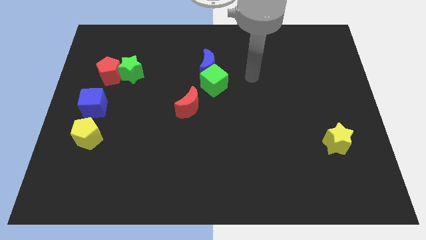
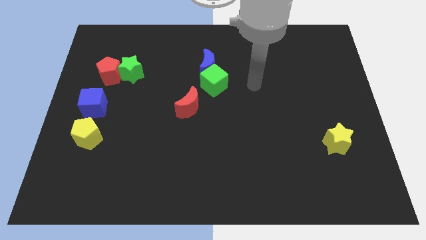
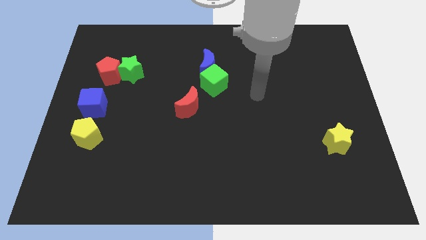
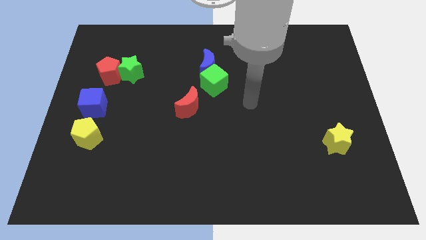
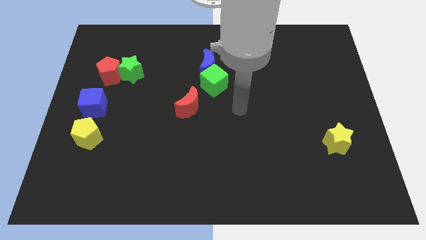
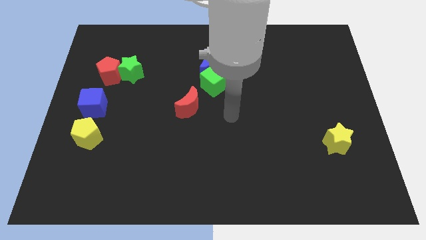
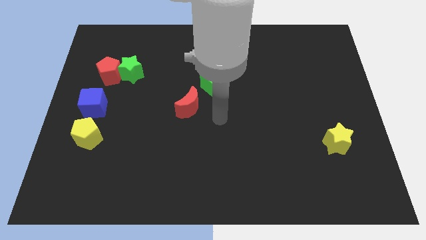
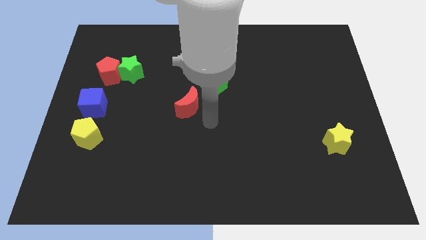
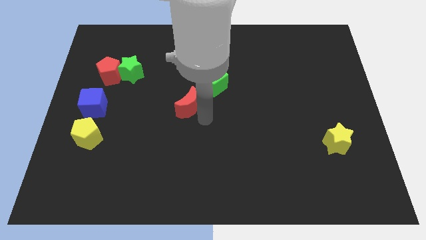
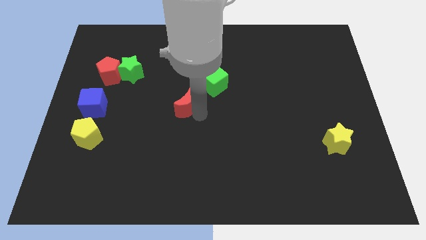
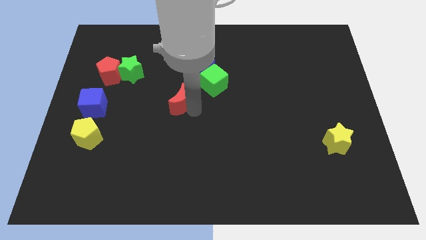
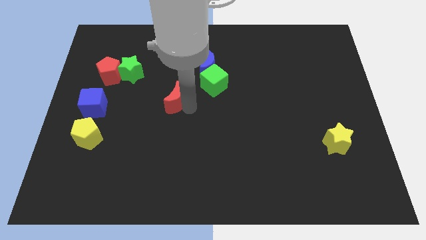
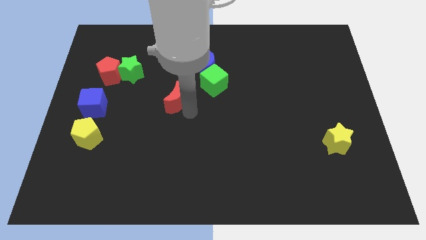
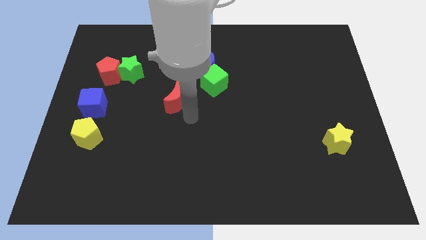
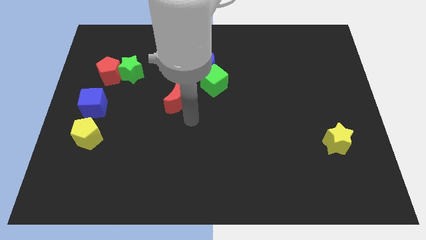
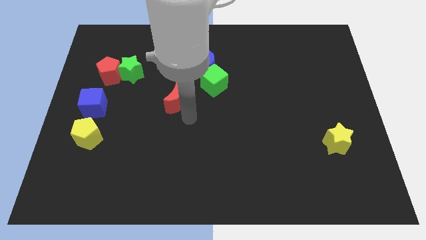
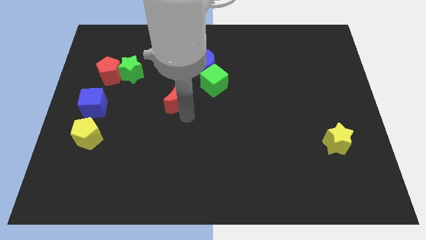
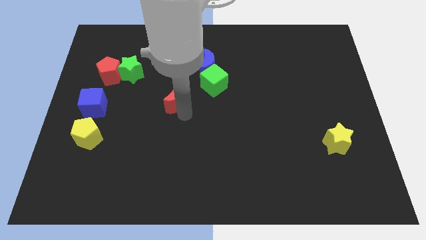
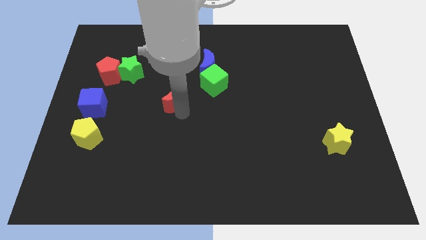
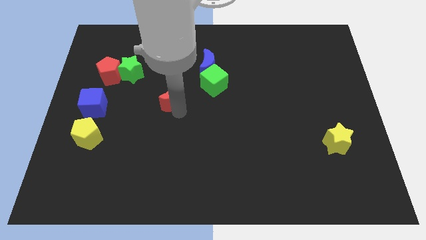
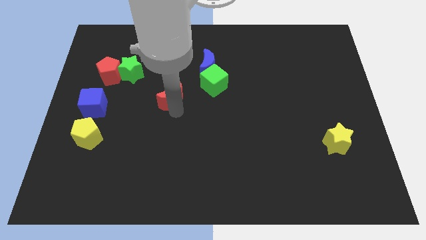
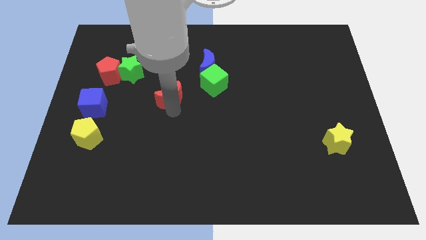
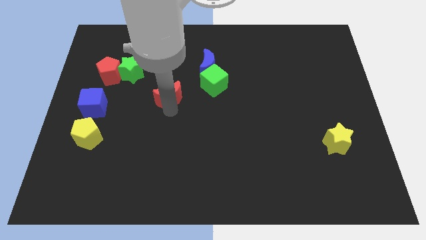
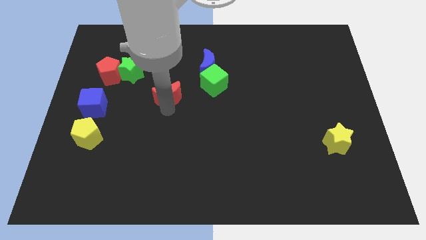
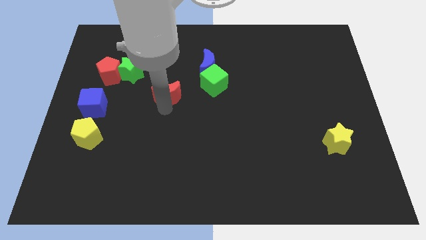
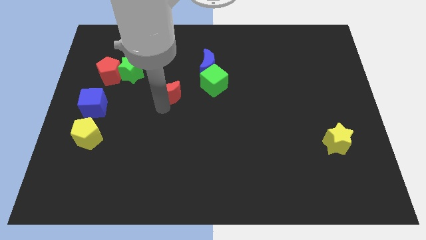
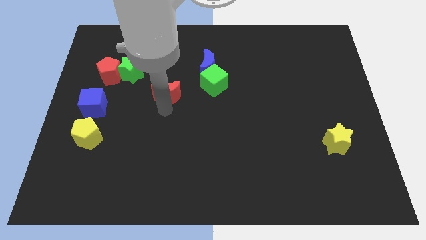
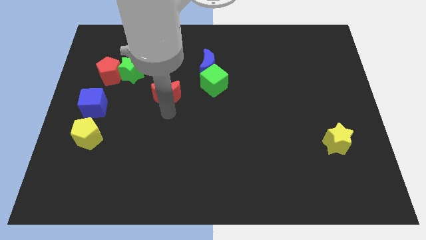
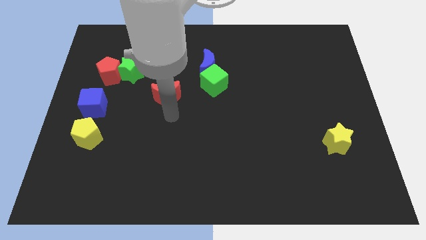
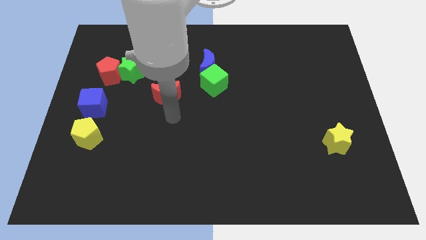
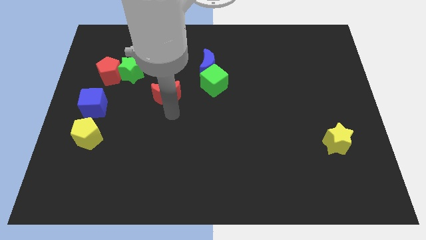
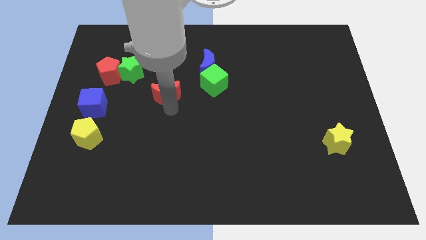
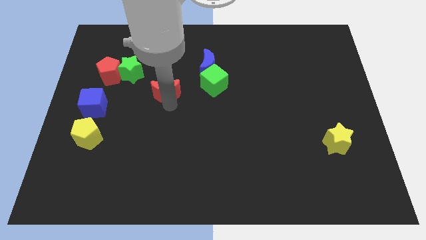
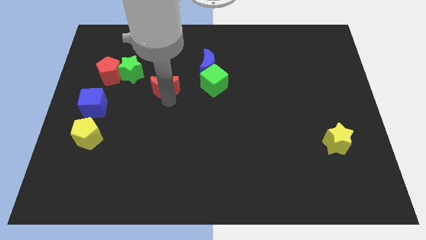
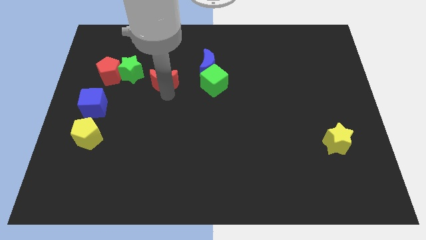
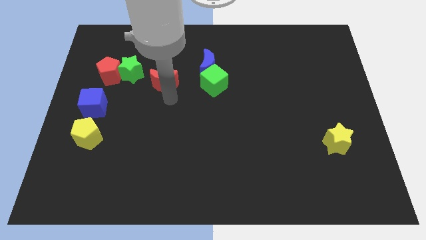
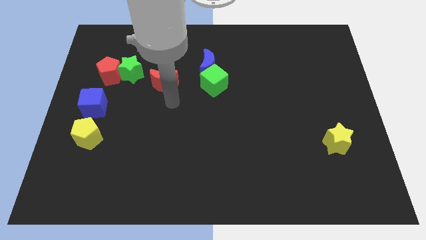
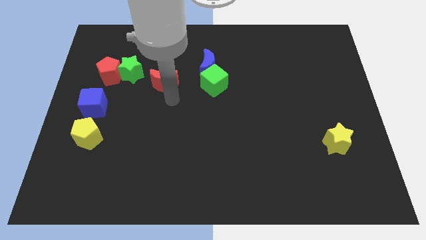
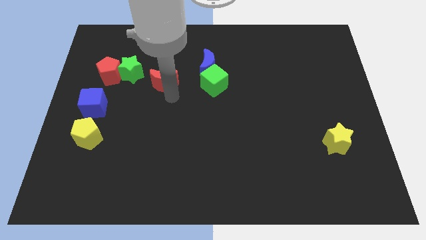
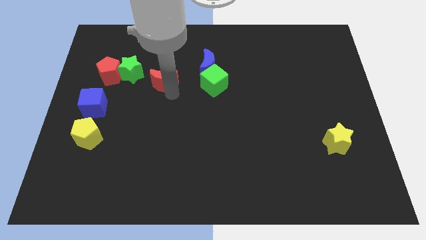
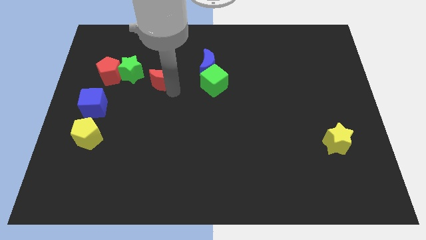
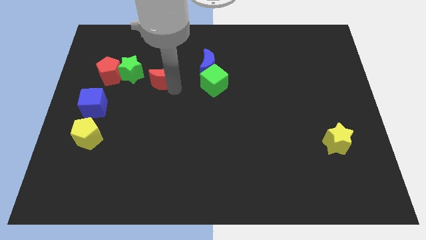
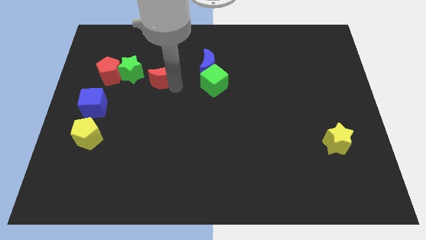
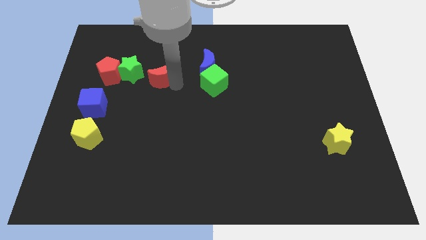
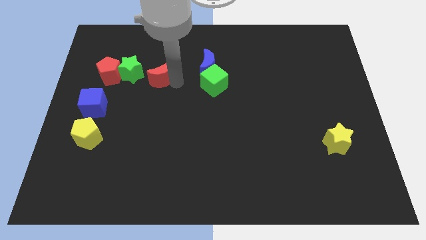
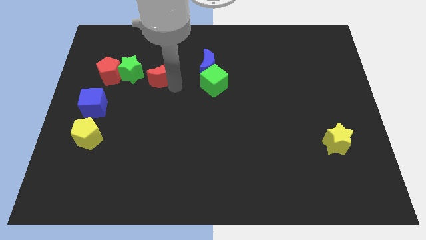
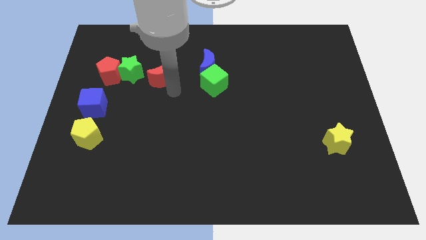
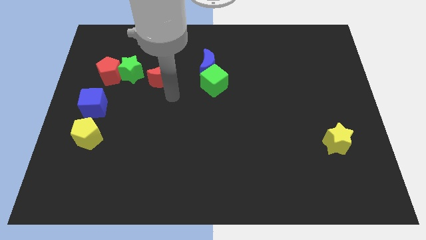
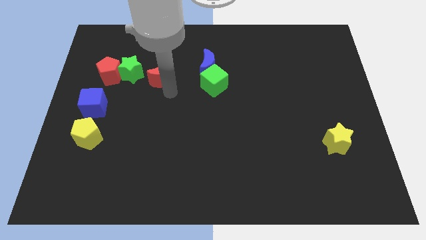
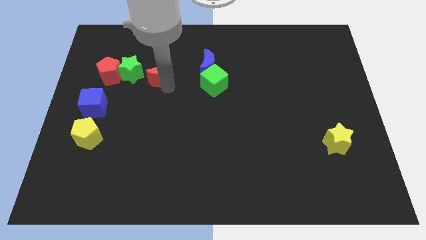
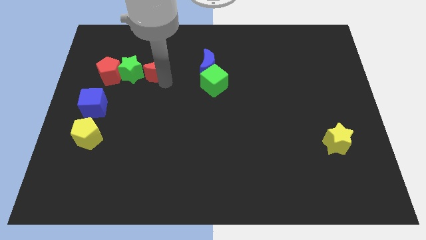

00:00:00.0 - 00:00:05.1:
slide the red moon diagonally up and to the right of the green star

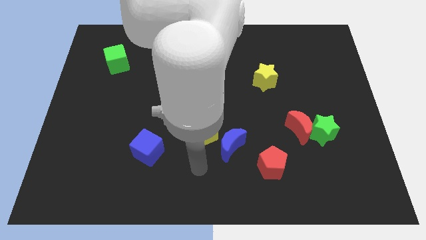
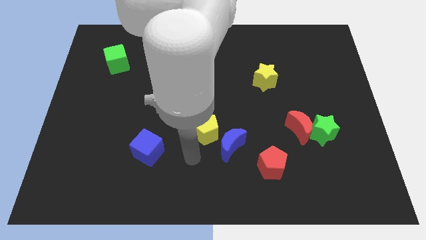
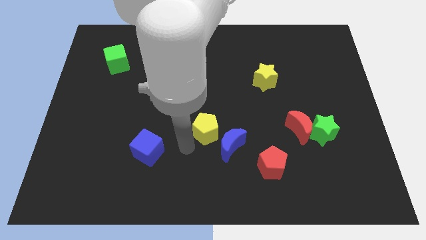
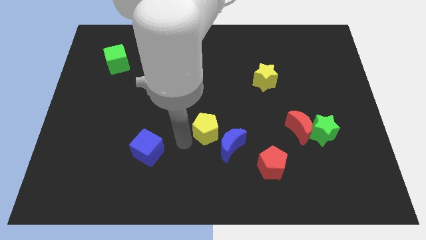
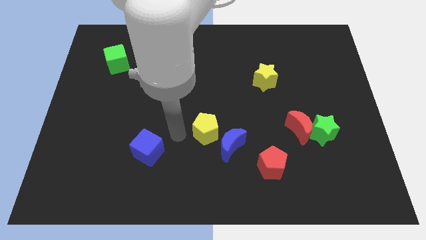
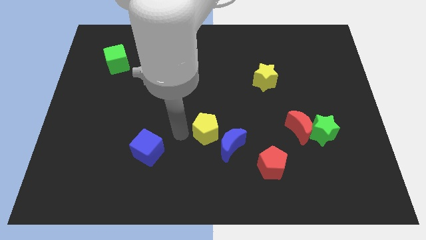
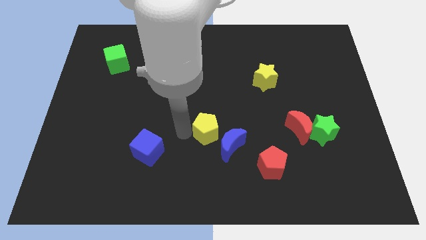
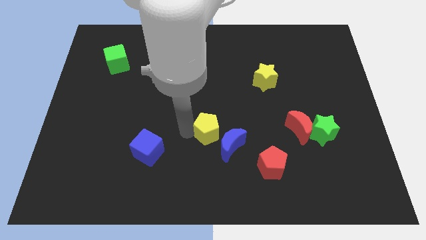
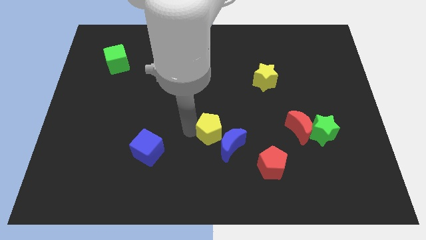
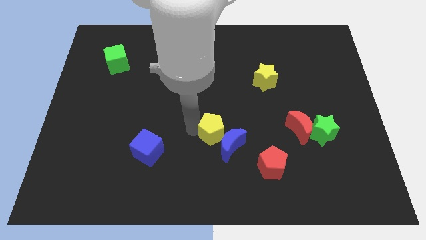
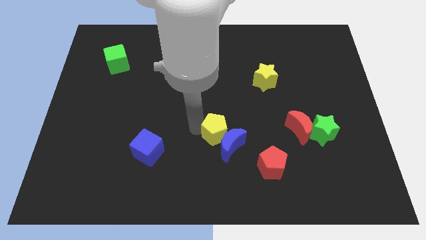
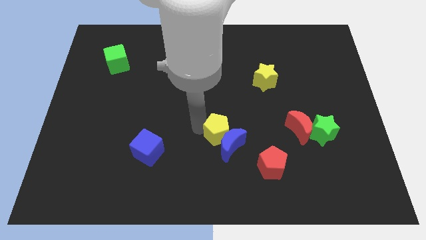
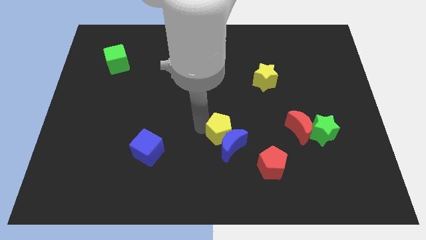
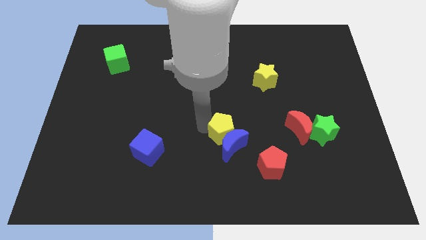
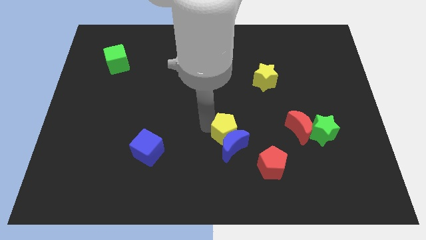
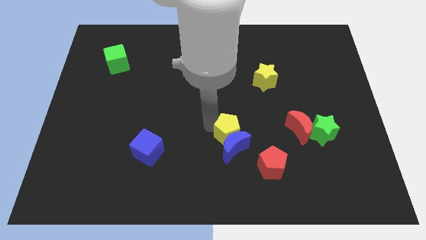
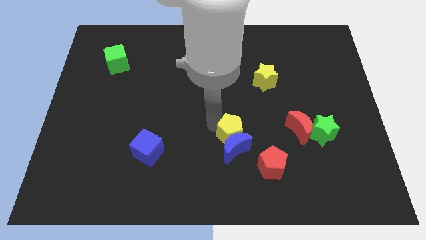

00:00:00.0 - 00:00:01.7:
put the yellow pentagon left of the red moon
